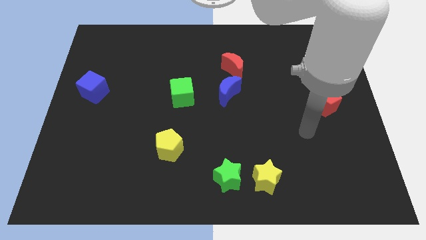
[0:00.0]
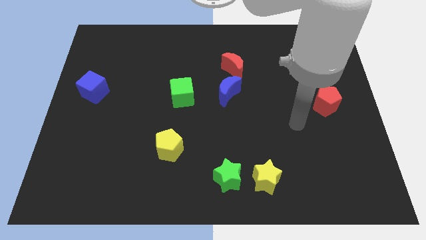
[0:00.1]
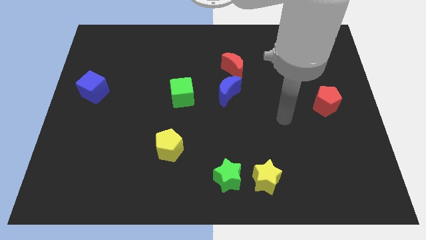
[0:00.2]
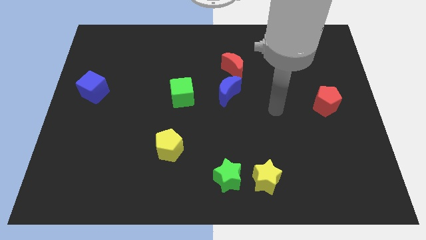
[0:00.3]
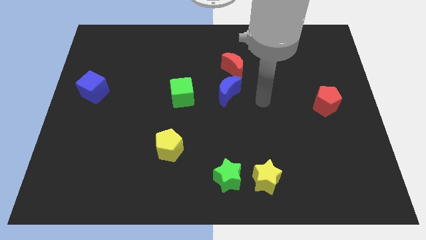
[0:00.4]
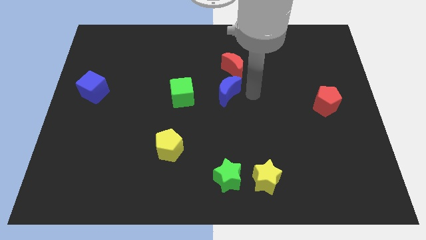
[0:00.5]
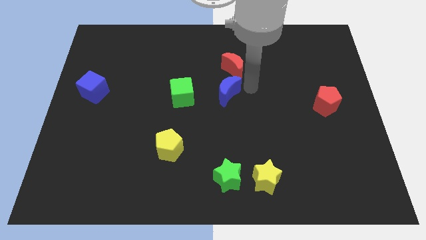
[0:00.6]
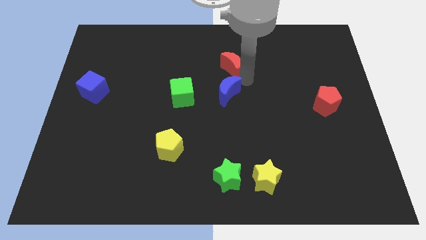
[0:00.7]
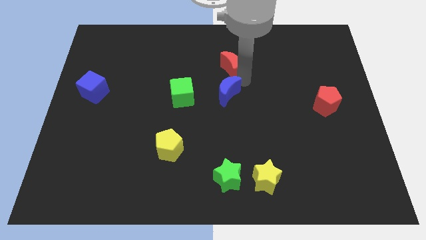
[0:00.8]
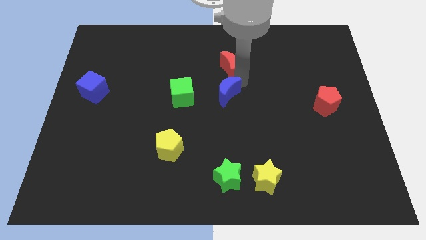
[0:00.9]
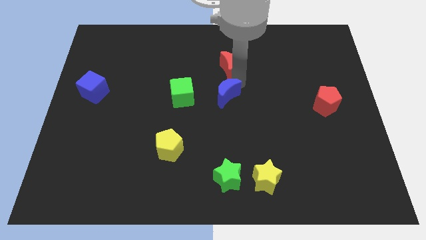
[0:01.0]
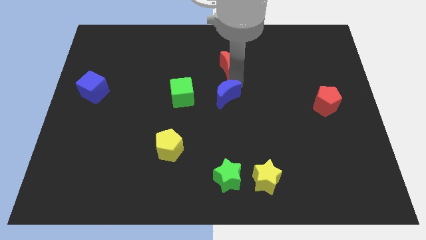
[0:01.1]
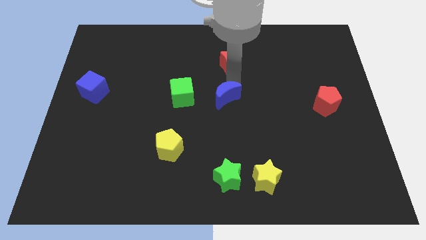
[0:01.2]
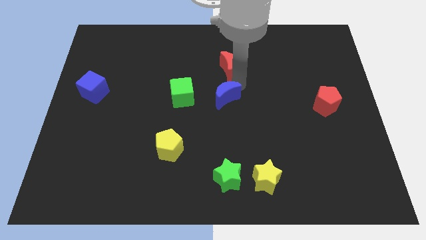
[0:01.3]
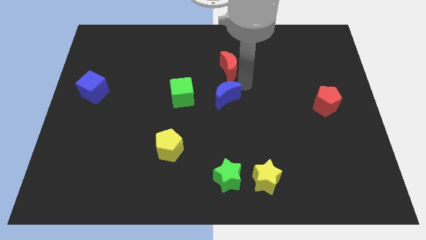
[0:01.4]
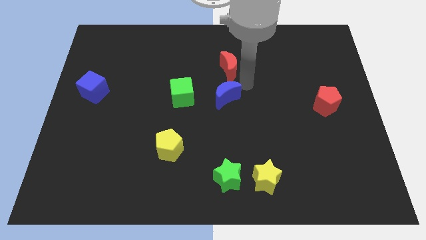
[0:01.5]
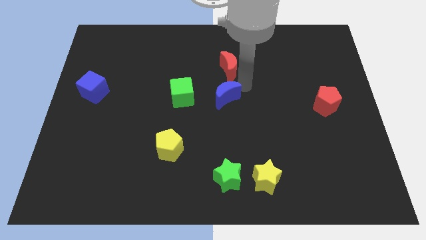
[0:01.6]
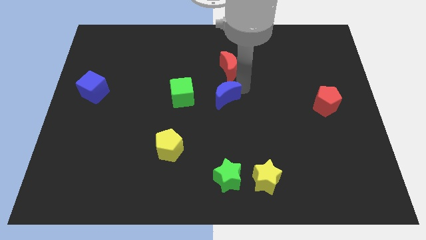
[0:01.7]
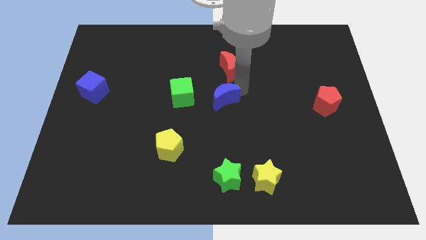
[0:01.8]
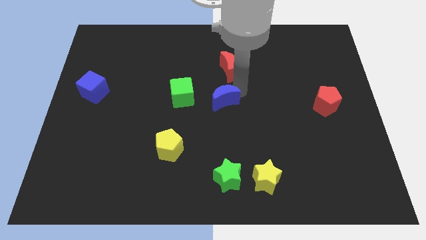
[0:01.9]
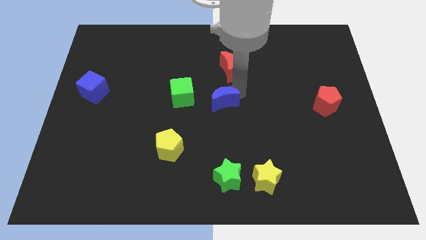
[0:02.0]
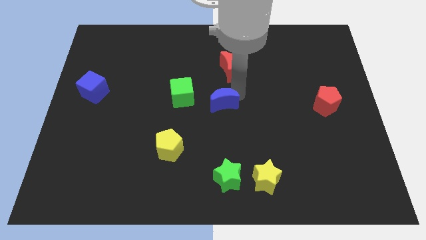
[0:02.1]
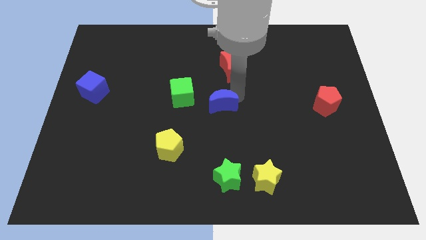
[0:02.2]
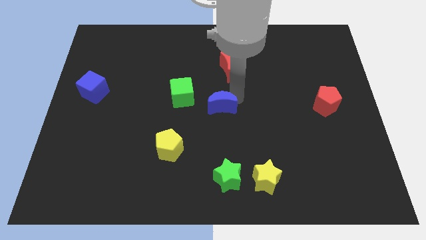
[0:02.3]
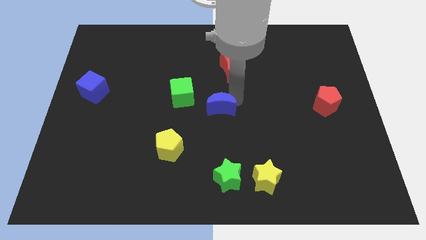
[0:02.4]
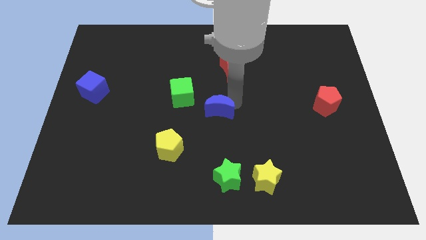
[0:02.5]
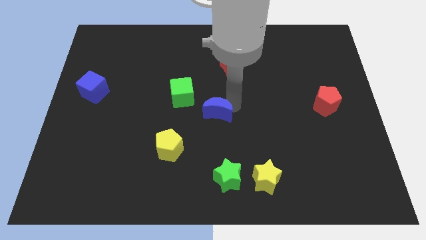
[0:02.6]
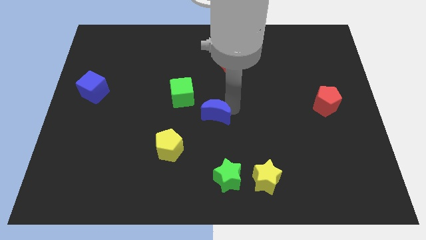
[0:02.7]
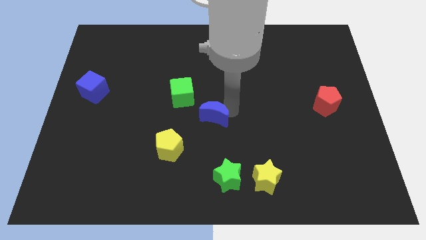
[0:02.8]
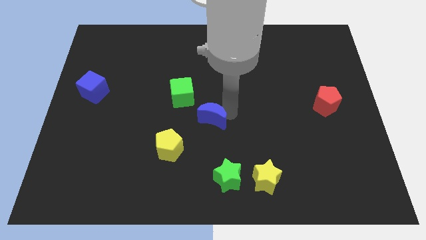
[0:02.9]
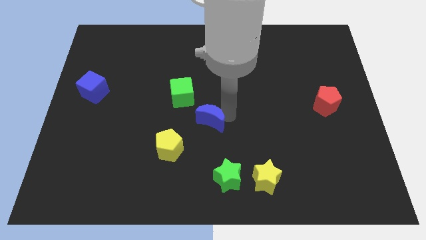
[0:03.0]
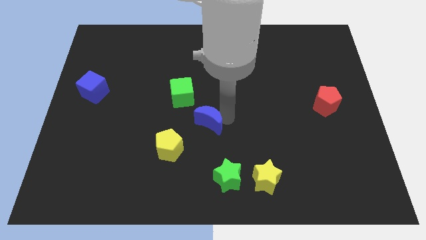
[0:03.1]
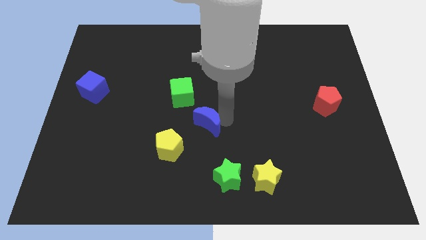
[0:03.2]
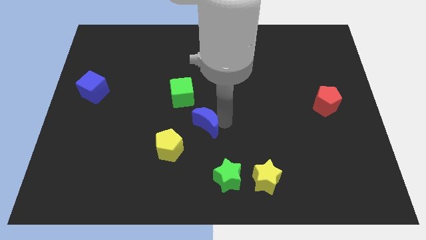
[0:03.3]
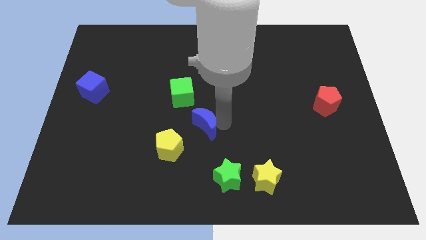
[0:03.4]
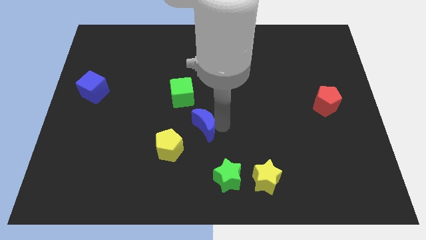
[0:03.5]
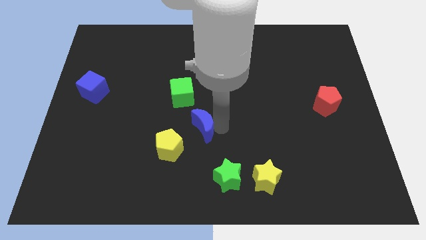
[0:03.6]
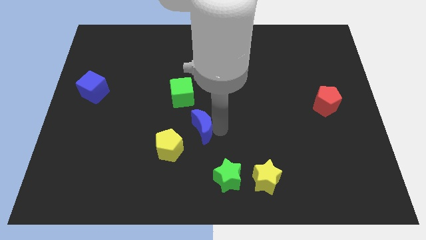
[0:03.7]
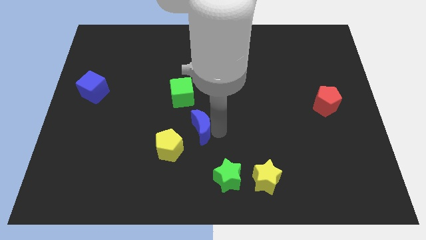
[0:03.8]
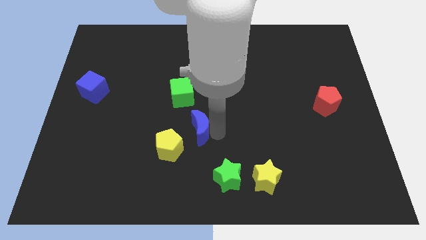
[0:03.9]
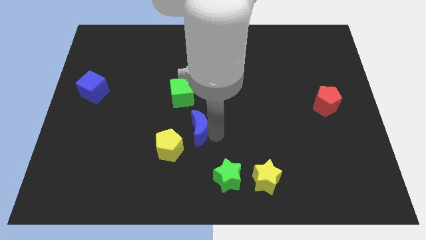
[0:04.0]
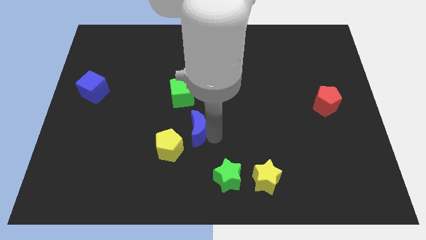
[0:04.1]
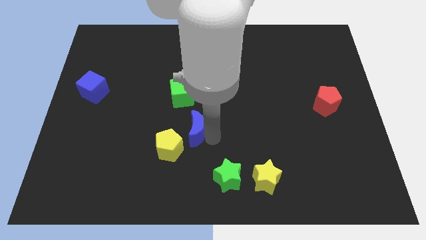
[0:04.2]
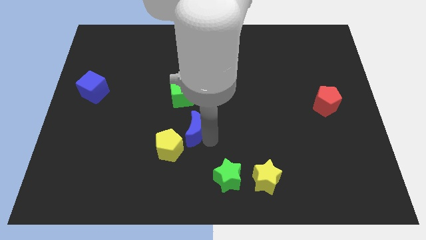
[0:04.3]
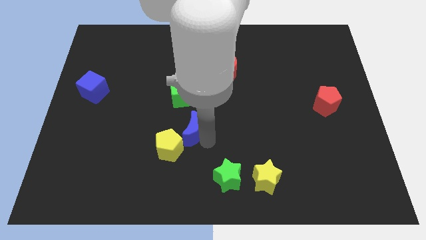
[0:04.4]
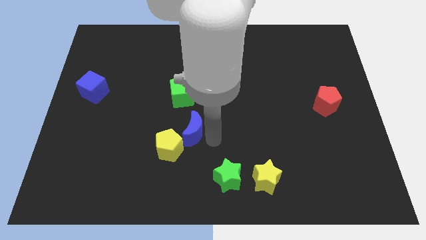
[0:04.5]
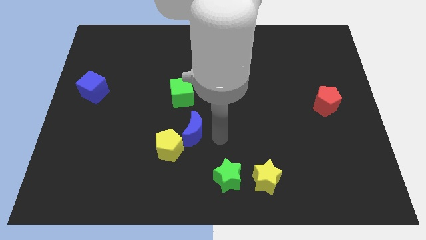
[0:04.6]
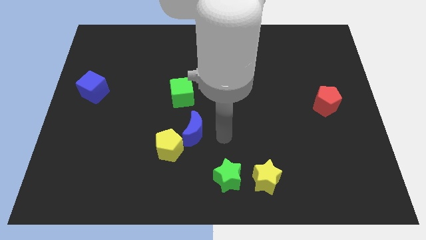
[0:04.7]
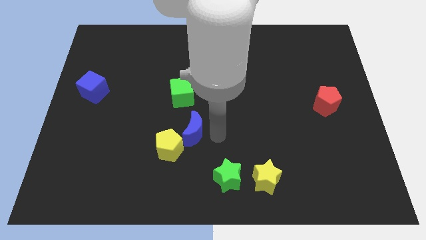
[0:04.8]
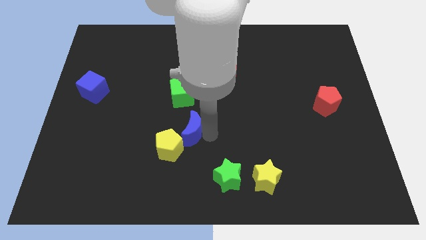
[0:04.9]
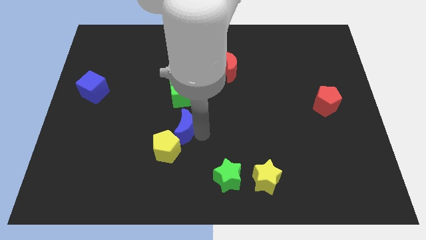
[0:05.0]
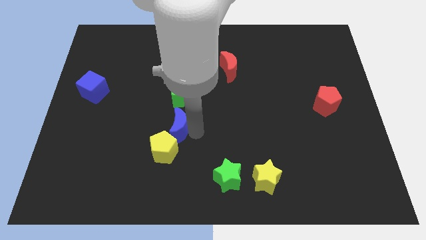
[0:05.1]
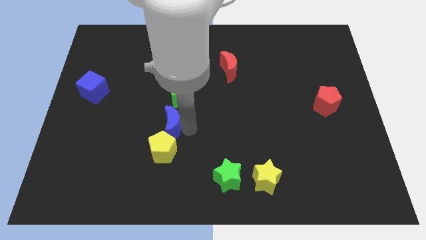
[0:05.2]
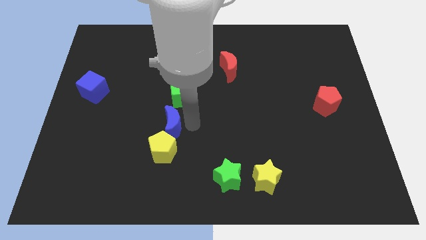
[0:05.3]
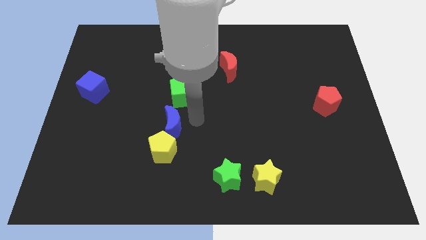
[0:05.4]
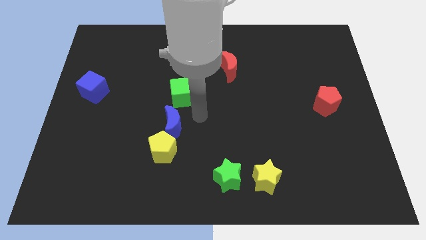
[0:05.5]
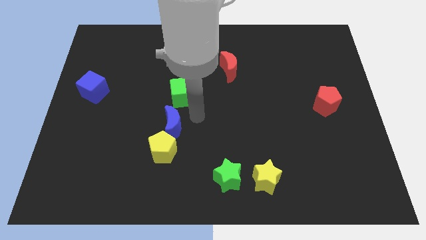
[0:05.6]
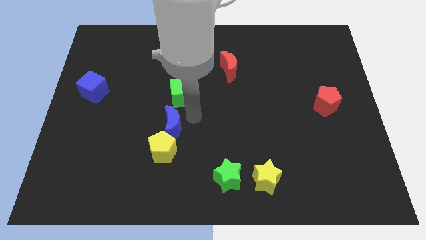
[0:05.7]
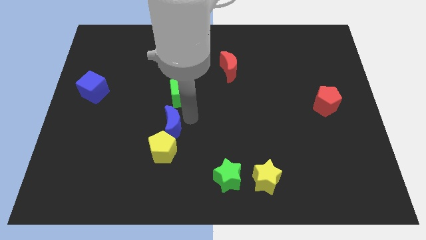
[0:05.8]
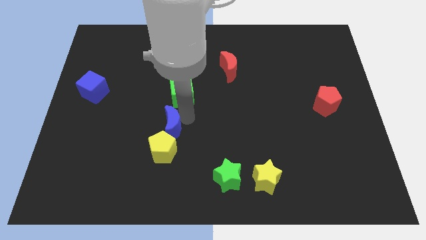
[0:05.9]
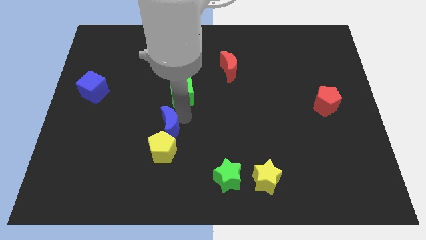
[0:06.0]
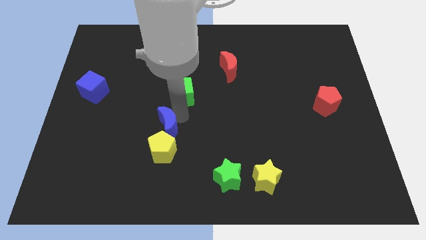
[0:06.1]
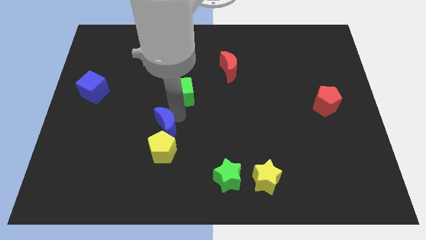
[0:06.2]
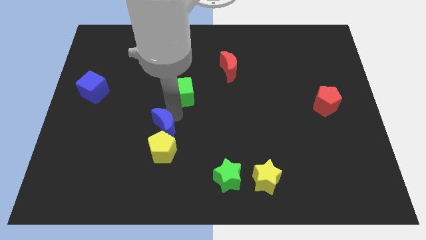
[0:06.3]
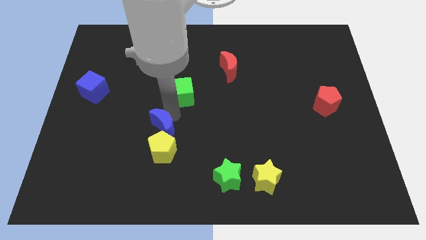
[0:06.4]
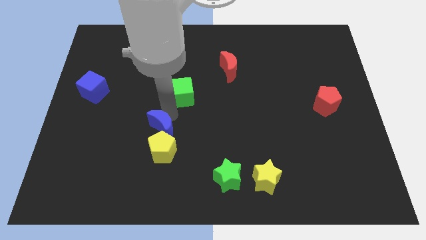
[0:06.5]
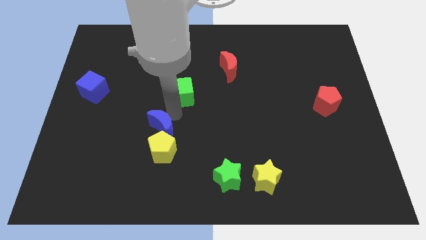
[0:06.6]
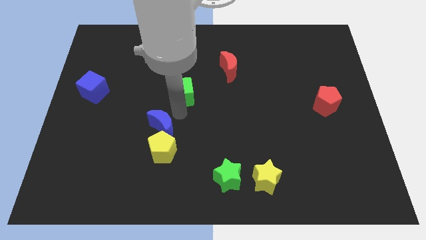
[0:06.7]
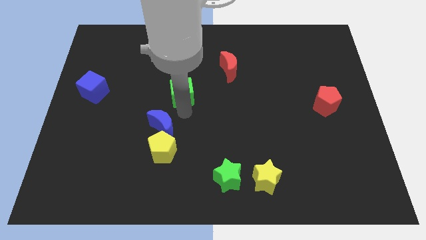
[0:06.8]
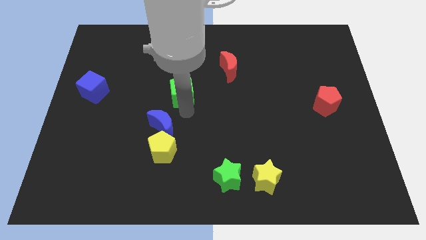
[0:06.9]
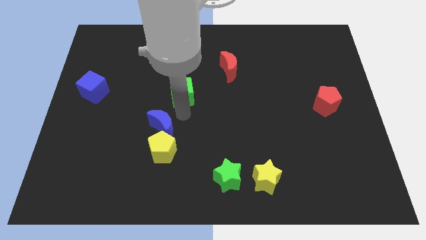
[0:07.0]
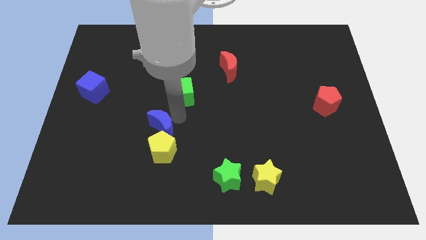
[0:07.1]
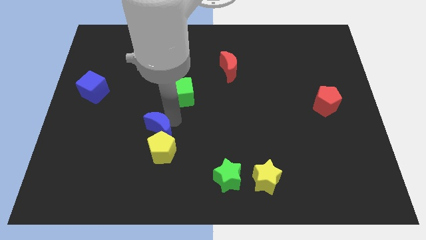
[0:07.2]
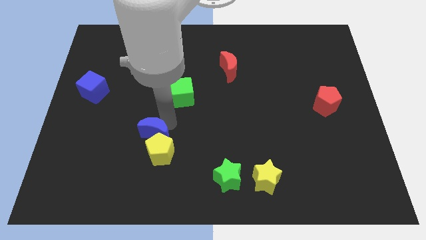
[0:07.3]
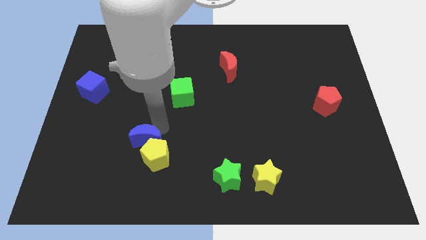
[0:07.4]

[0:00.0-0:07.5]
slide the blue moon down and left
